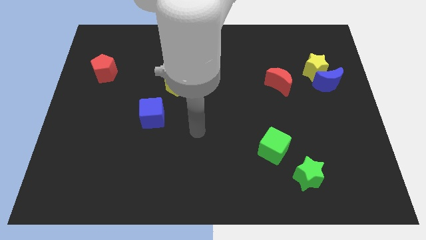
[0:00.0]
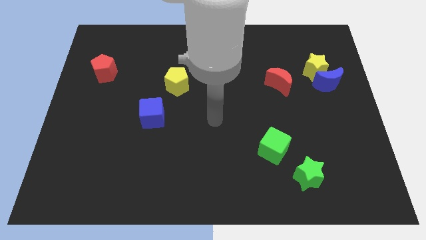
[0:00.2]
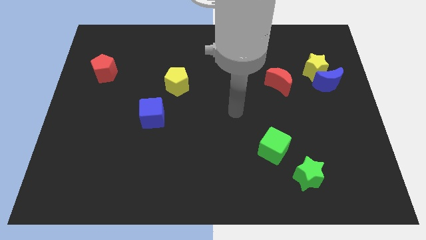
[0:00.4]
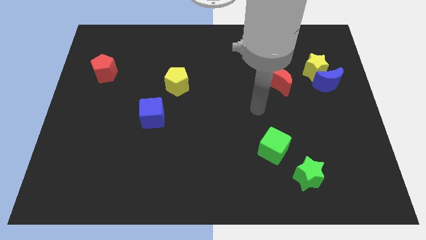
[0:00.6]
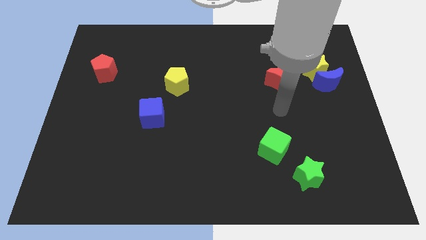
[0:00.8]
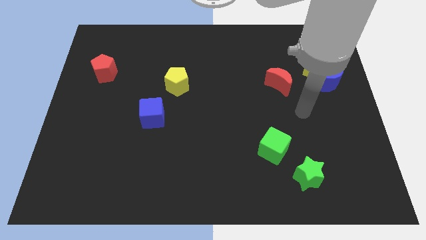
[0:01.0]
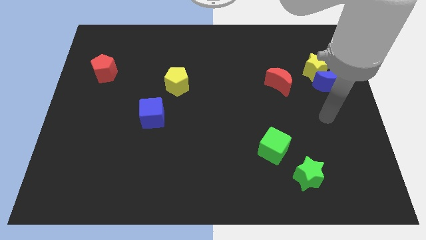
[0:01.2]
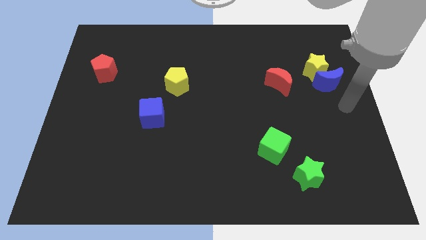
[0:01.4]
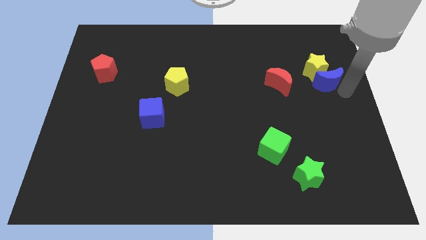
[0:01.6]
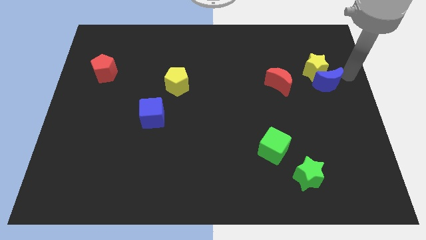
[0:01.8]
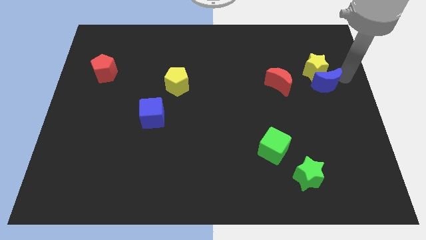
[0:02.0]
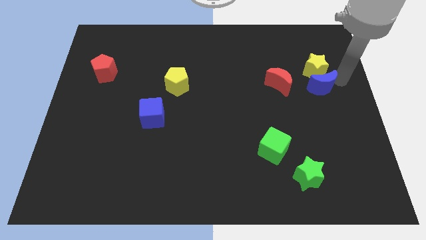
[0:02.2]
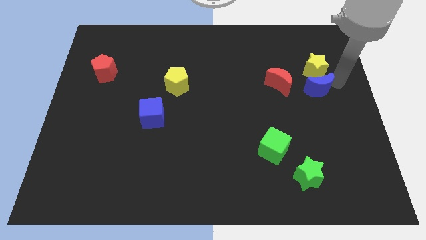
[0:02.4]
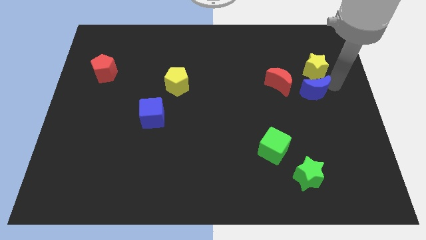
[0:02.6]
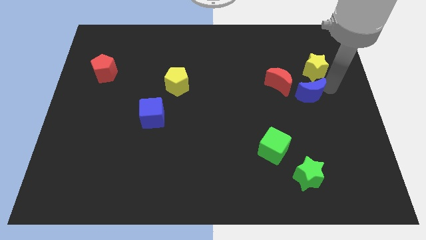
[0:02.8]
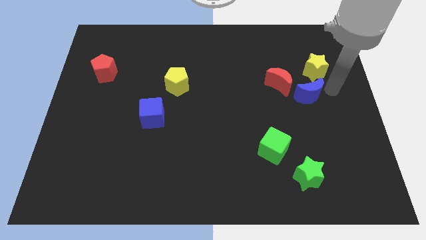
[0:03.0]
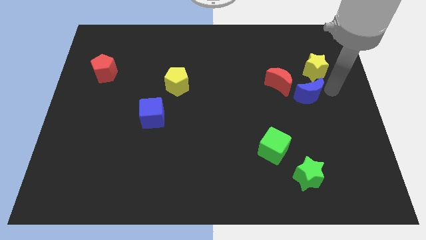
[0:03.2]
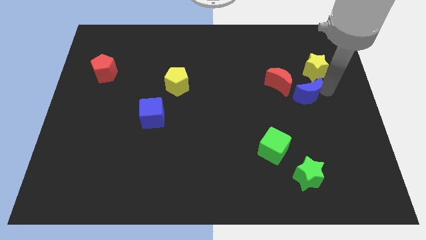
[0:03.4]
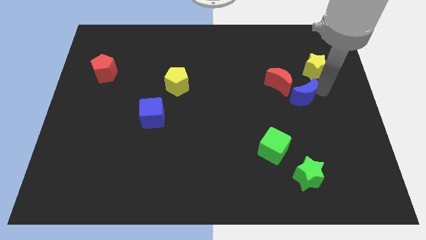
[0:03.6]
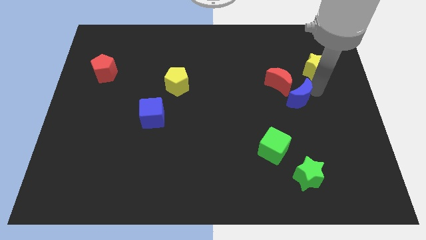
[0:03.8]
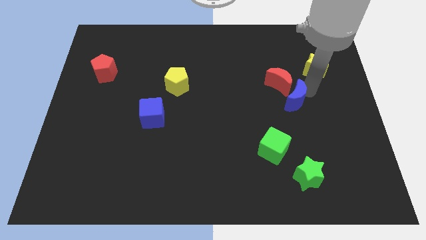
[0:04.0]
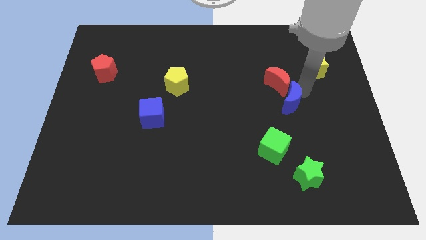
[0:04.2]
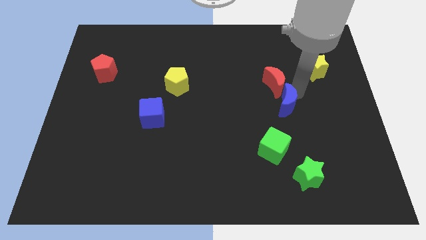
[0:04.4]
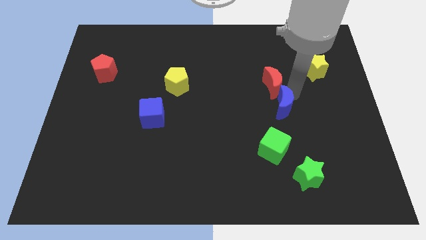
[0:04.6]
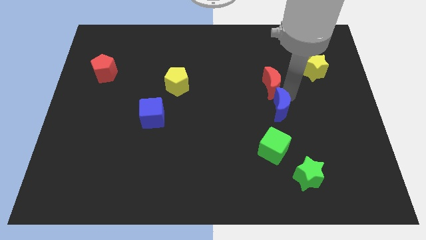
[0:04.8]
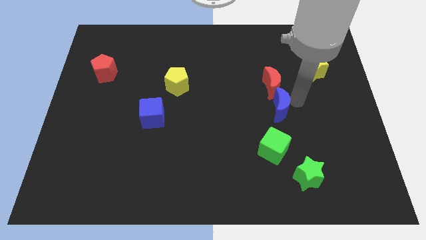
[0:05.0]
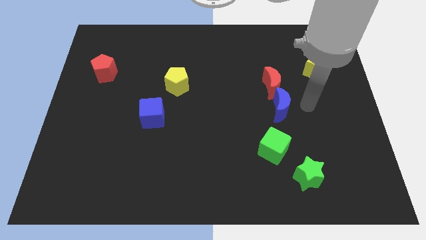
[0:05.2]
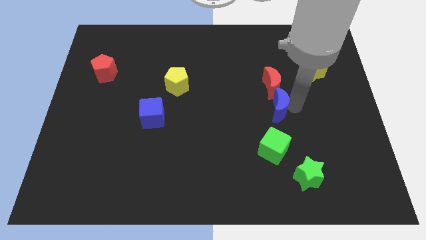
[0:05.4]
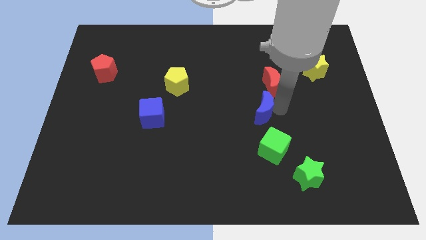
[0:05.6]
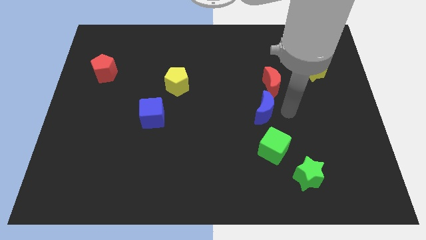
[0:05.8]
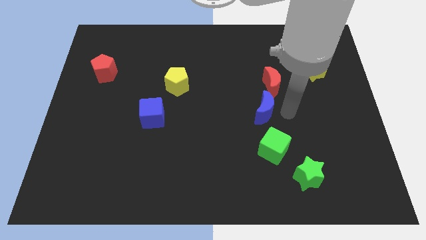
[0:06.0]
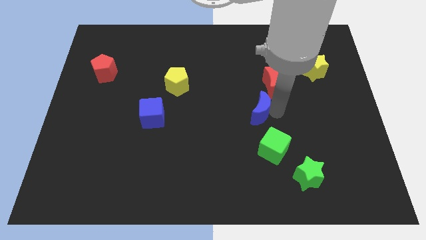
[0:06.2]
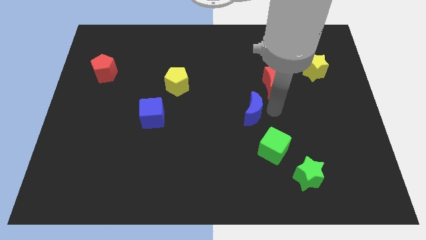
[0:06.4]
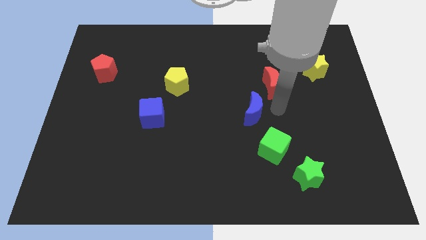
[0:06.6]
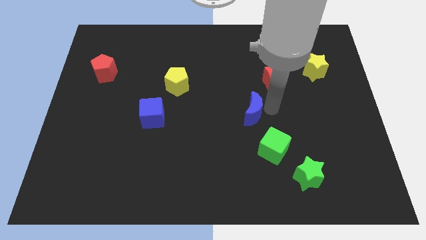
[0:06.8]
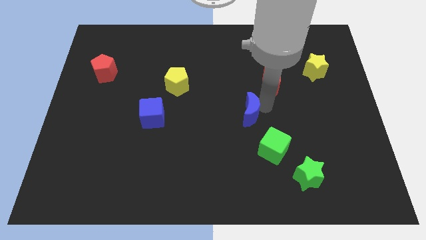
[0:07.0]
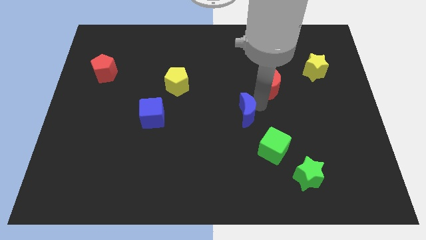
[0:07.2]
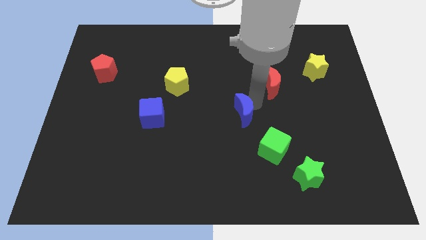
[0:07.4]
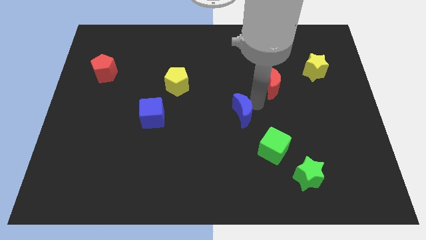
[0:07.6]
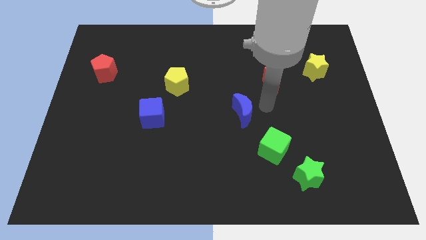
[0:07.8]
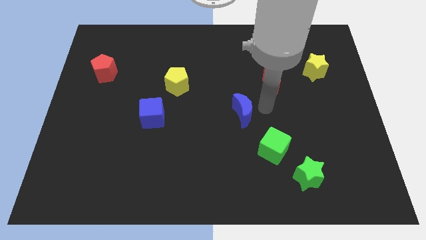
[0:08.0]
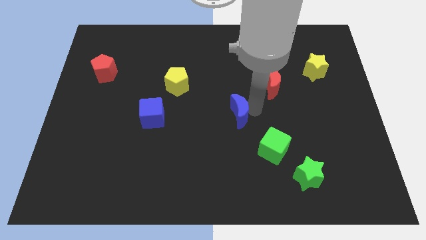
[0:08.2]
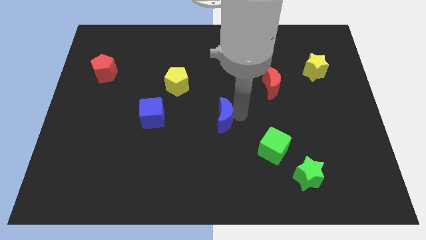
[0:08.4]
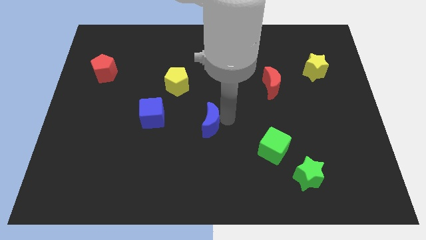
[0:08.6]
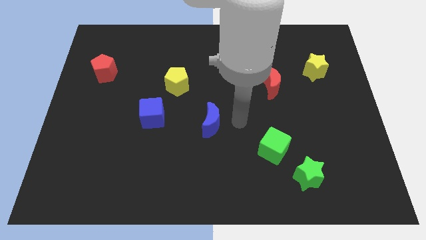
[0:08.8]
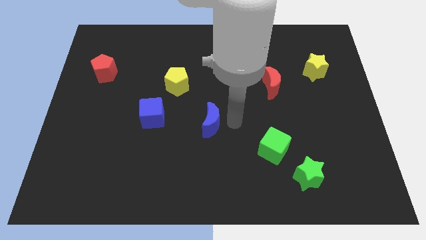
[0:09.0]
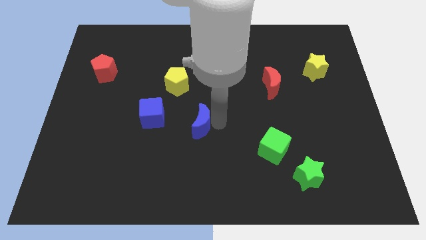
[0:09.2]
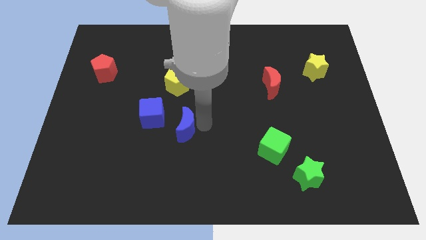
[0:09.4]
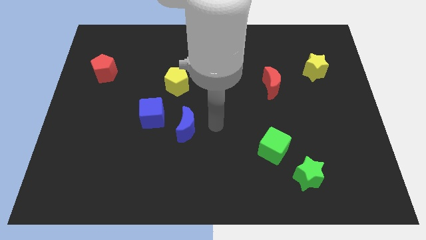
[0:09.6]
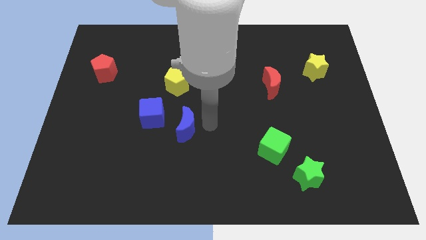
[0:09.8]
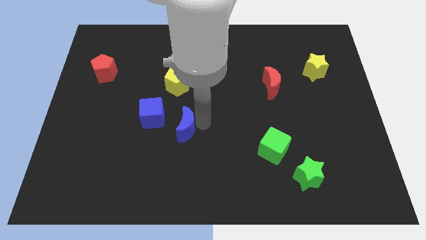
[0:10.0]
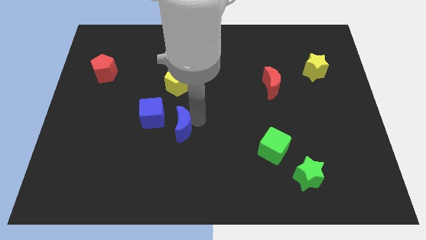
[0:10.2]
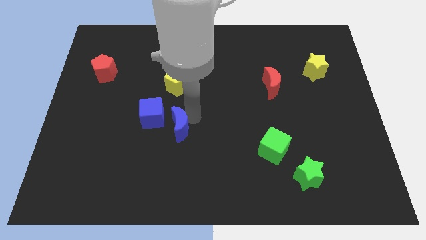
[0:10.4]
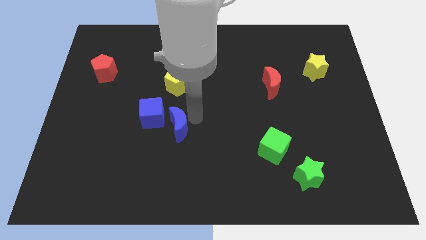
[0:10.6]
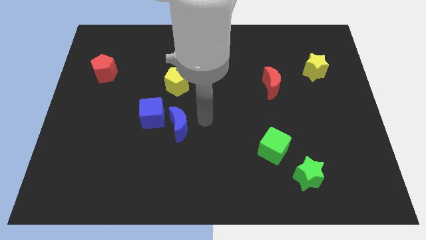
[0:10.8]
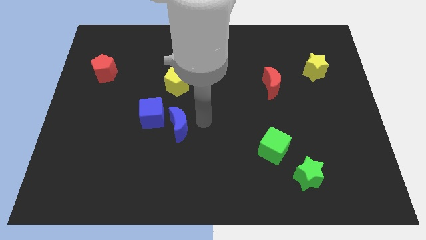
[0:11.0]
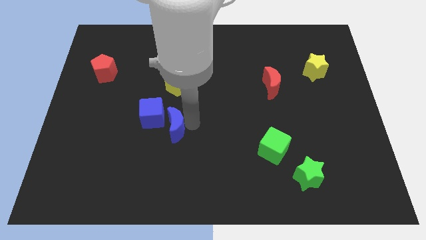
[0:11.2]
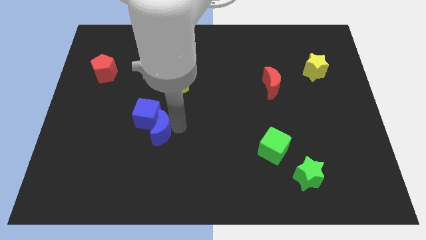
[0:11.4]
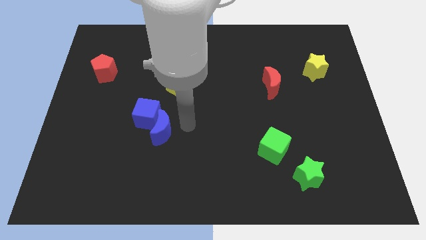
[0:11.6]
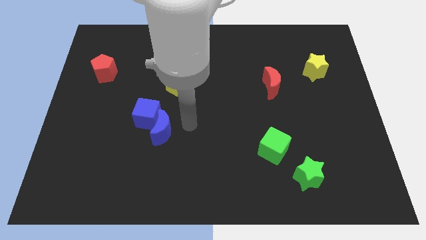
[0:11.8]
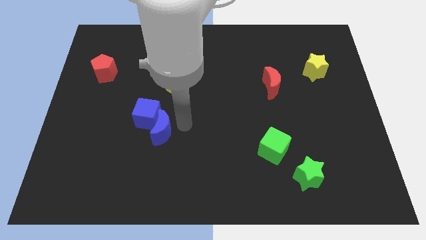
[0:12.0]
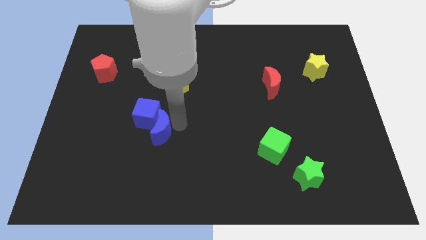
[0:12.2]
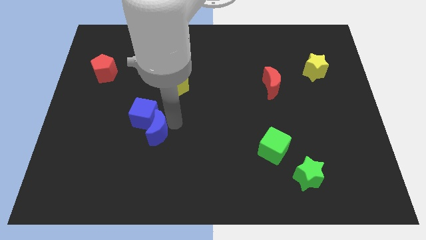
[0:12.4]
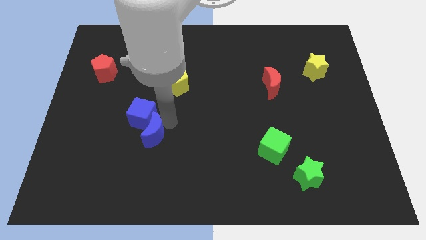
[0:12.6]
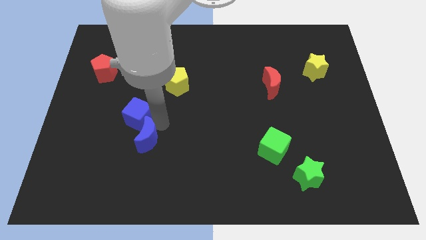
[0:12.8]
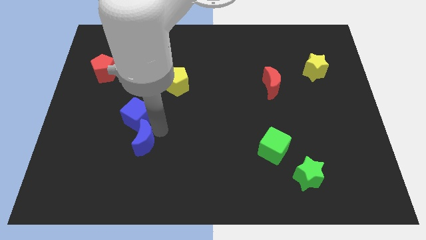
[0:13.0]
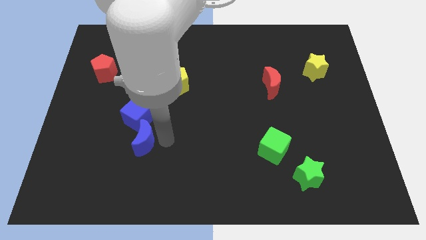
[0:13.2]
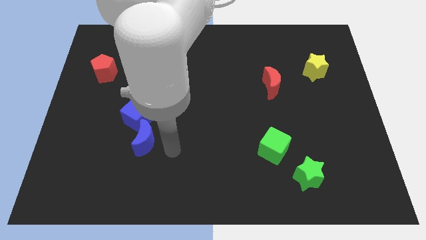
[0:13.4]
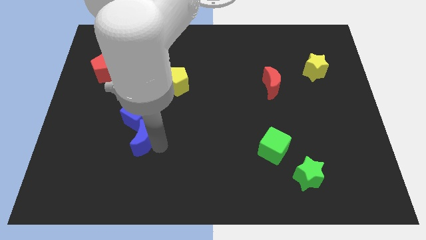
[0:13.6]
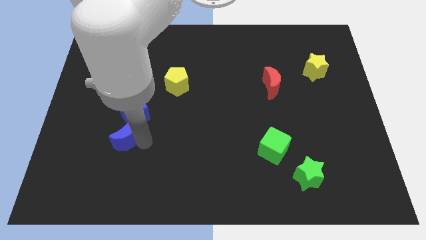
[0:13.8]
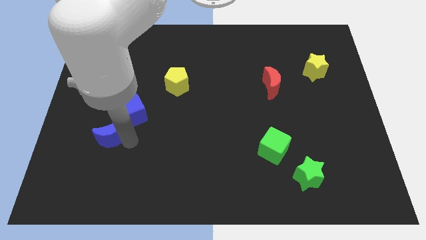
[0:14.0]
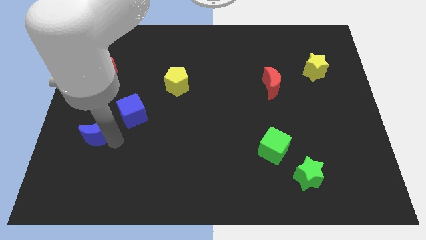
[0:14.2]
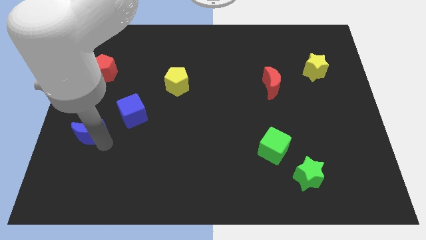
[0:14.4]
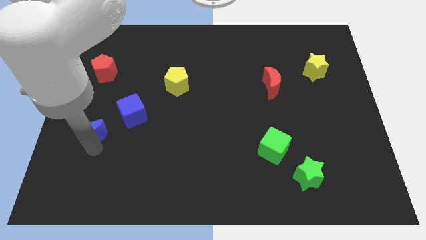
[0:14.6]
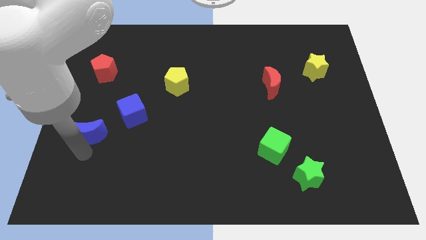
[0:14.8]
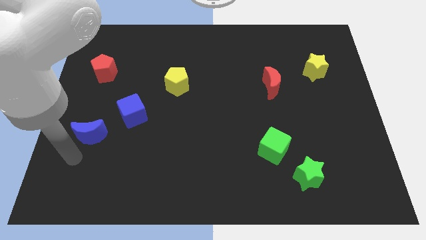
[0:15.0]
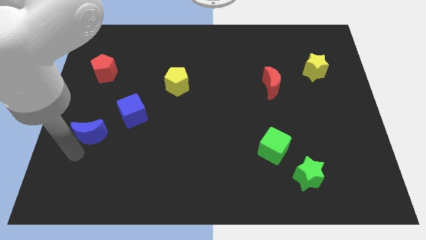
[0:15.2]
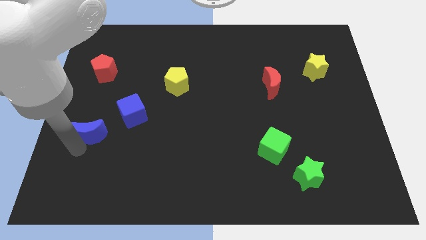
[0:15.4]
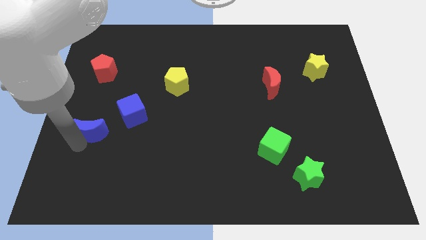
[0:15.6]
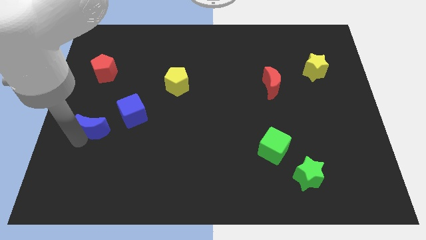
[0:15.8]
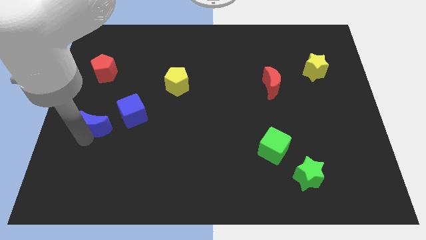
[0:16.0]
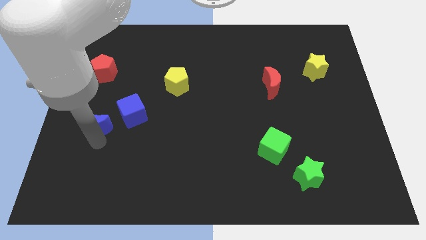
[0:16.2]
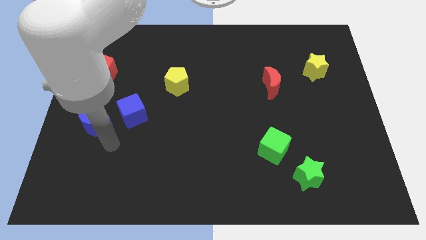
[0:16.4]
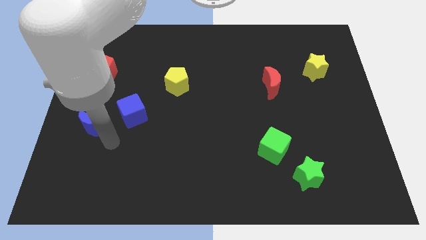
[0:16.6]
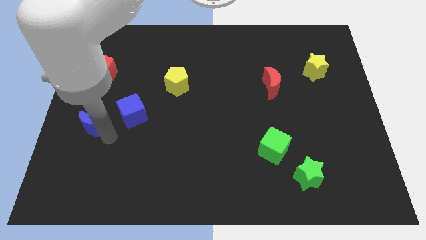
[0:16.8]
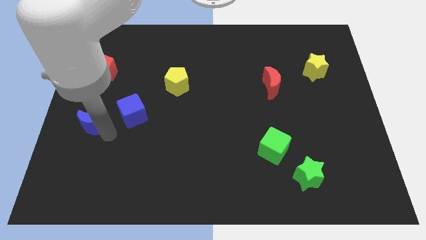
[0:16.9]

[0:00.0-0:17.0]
move the blue moon to the center left
